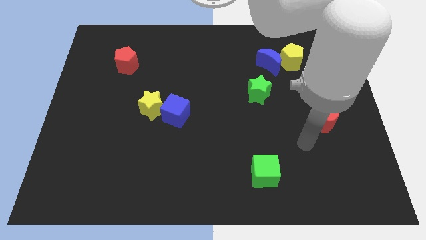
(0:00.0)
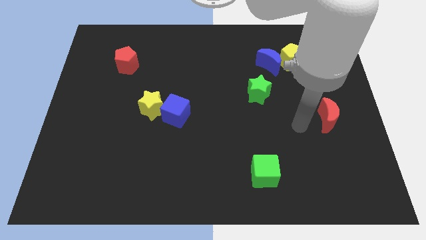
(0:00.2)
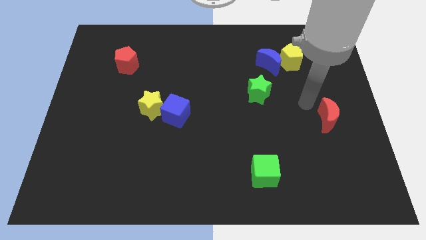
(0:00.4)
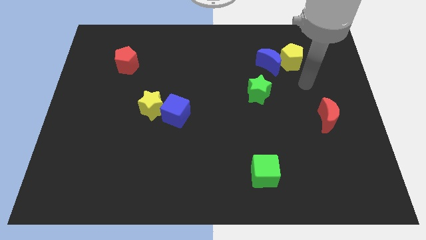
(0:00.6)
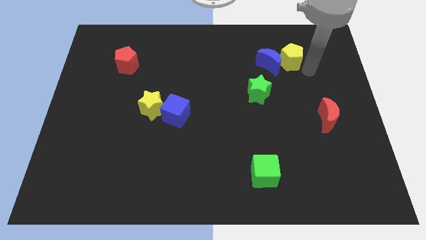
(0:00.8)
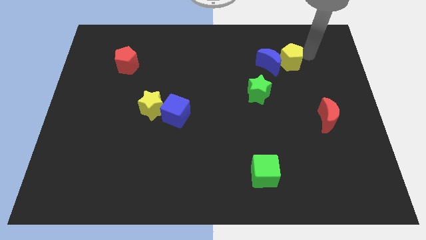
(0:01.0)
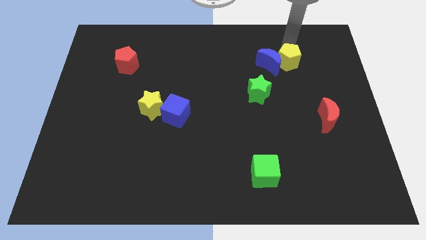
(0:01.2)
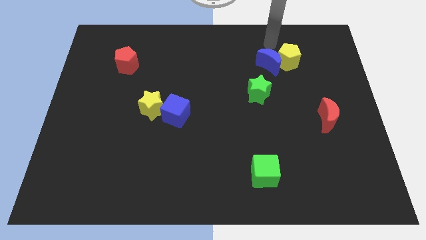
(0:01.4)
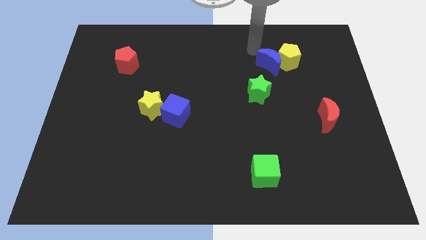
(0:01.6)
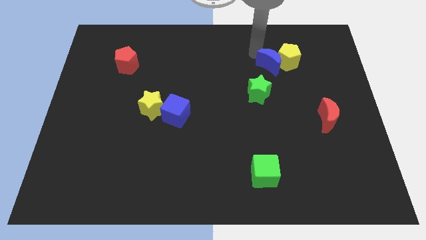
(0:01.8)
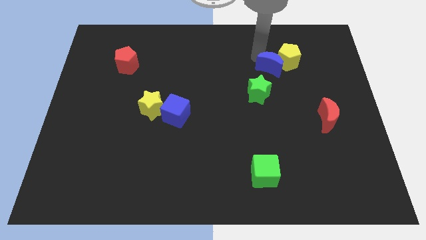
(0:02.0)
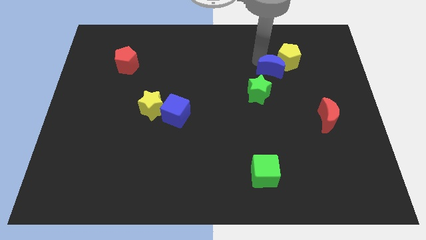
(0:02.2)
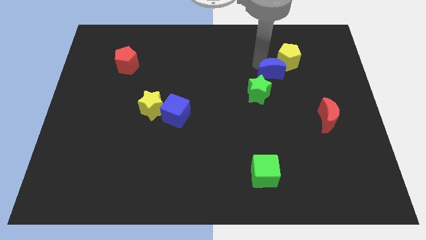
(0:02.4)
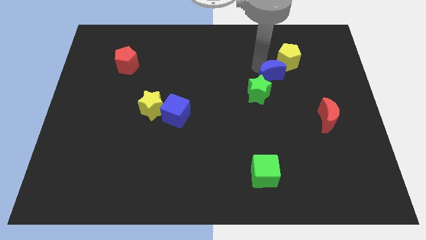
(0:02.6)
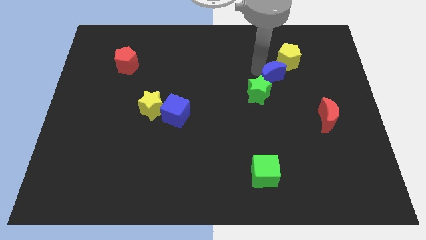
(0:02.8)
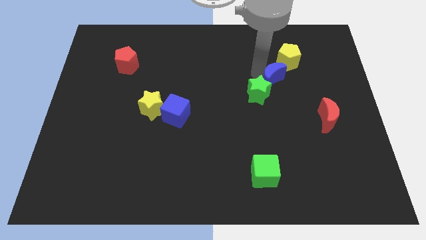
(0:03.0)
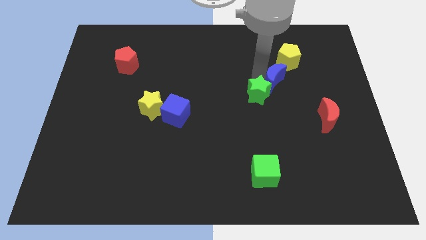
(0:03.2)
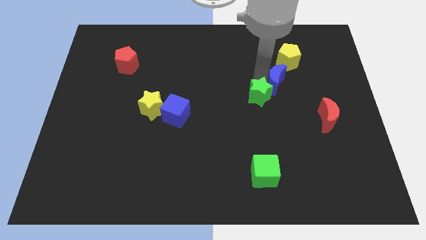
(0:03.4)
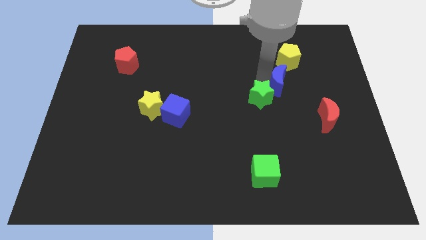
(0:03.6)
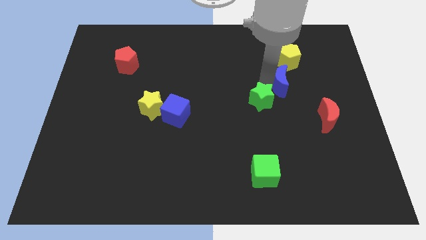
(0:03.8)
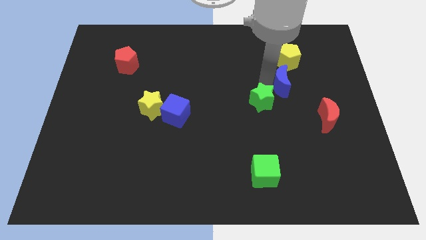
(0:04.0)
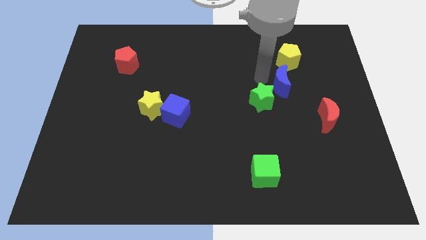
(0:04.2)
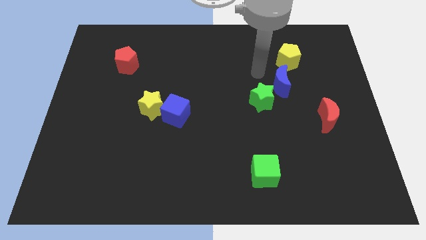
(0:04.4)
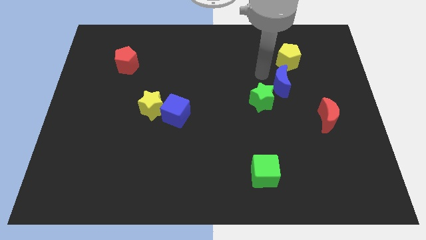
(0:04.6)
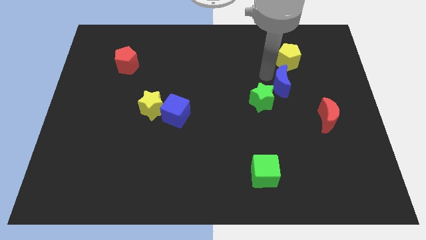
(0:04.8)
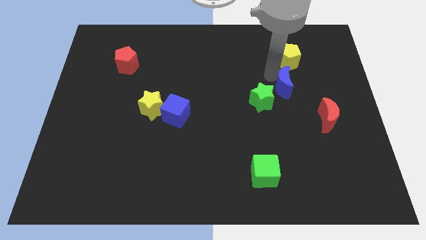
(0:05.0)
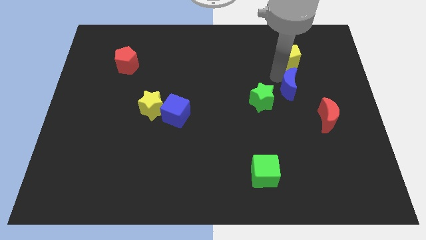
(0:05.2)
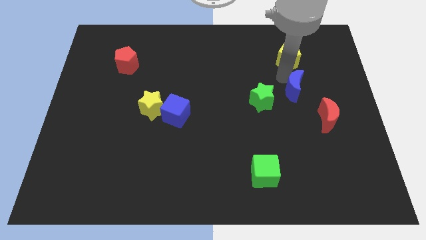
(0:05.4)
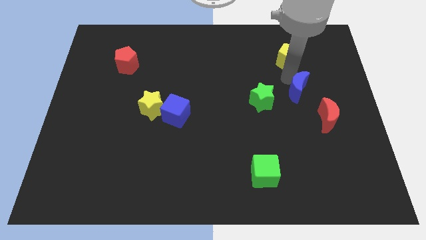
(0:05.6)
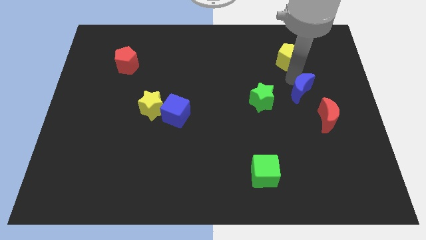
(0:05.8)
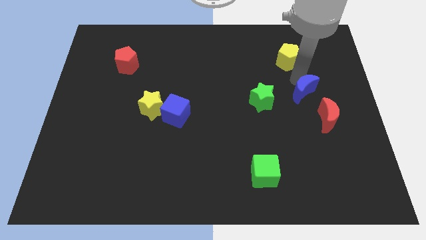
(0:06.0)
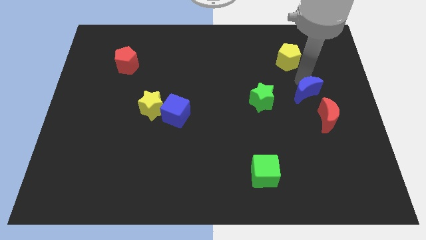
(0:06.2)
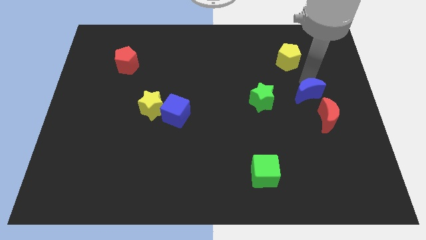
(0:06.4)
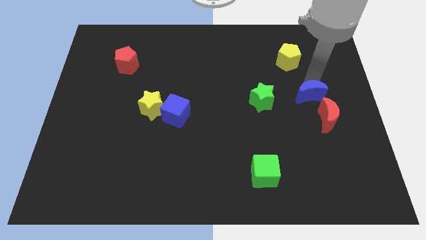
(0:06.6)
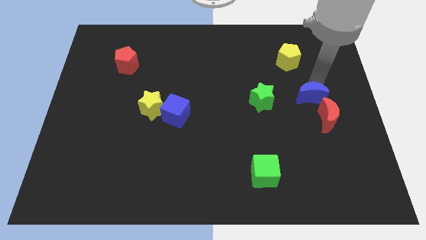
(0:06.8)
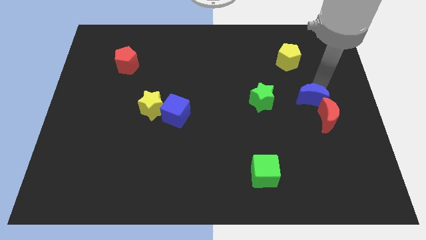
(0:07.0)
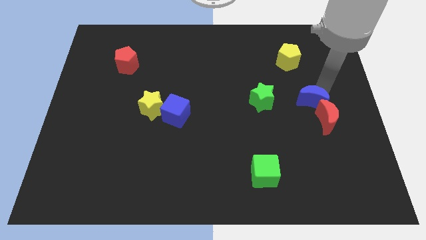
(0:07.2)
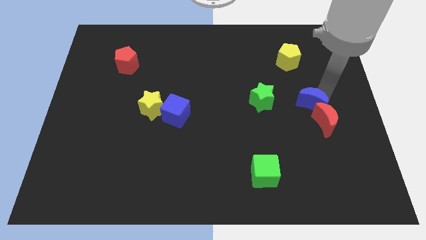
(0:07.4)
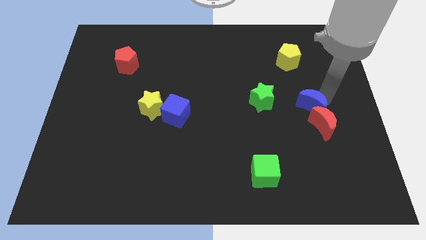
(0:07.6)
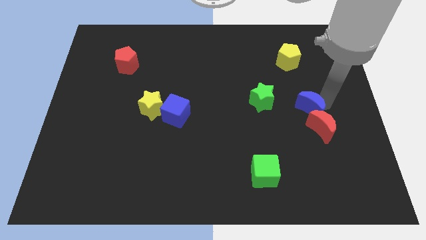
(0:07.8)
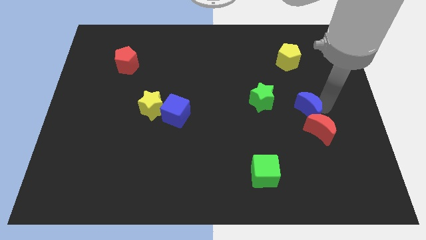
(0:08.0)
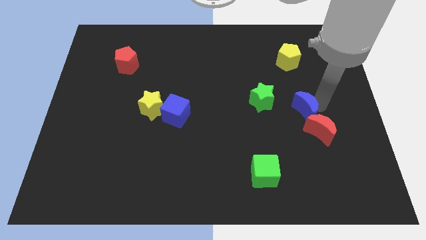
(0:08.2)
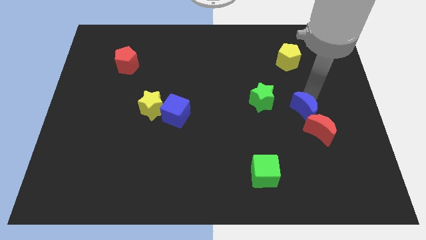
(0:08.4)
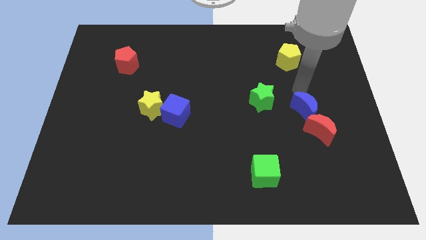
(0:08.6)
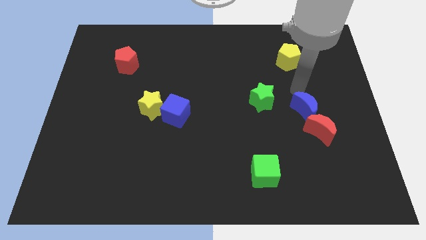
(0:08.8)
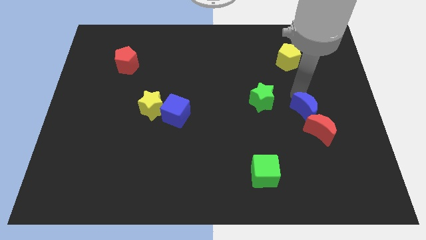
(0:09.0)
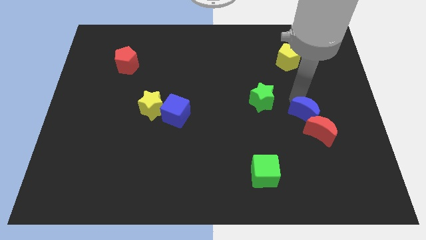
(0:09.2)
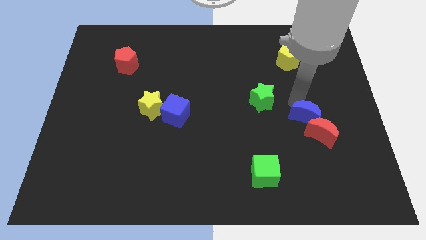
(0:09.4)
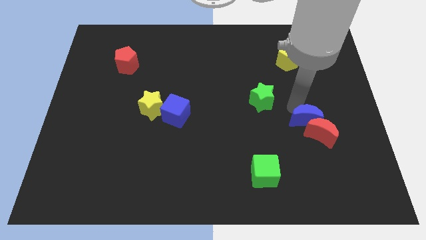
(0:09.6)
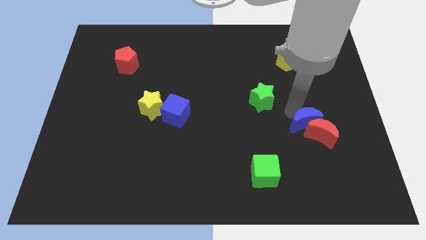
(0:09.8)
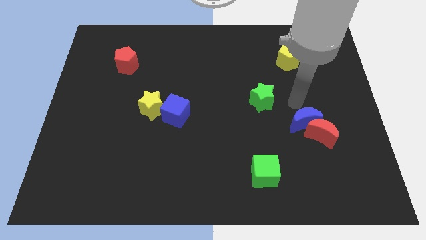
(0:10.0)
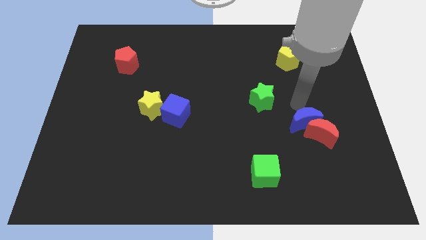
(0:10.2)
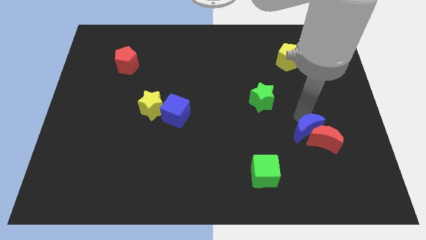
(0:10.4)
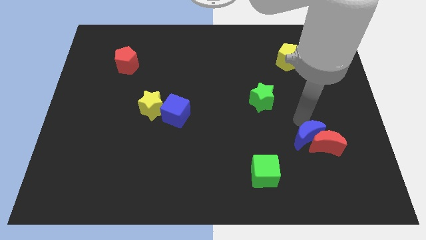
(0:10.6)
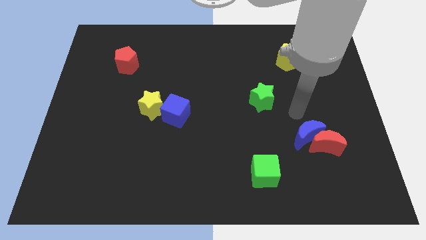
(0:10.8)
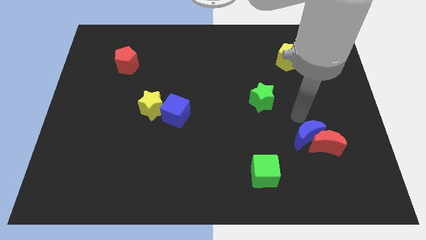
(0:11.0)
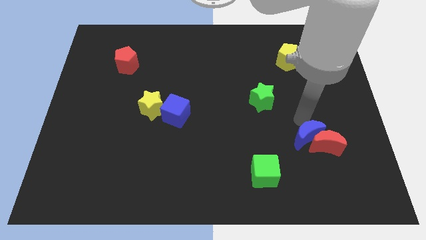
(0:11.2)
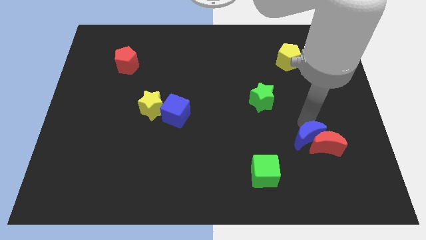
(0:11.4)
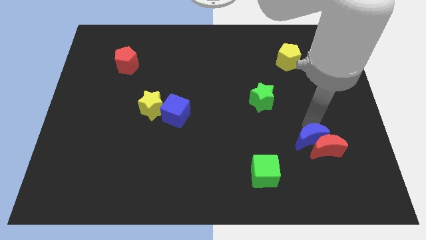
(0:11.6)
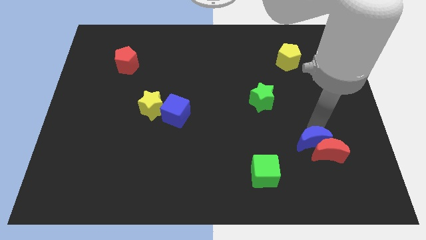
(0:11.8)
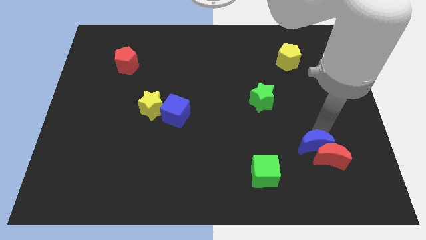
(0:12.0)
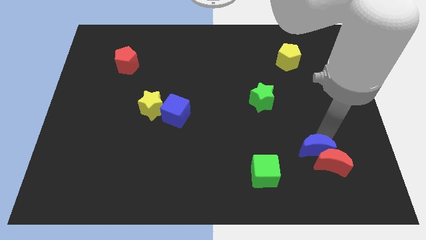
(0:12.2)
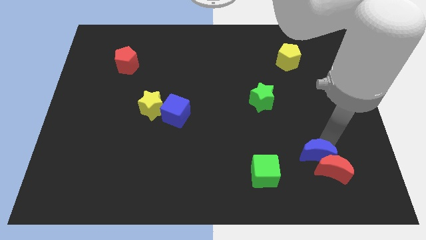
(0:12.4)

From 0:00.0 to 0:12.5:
slide the blue moon right of the green cube

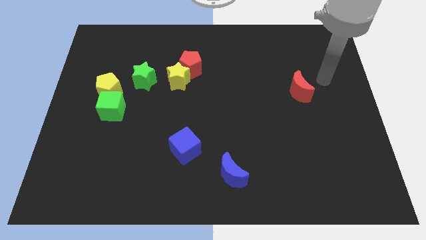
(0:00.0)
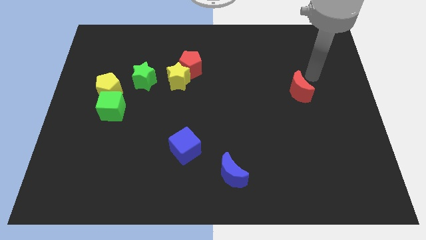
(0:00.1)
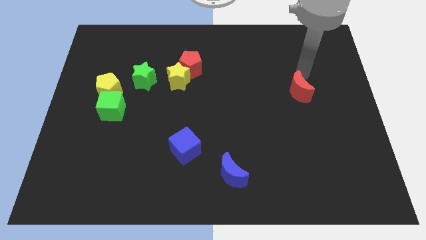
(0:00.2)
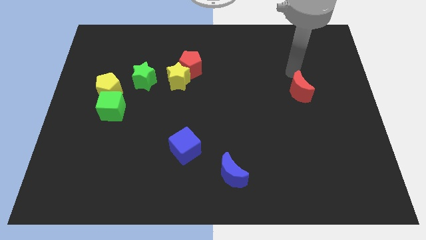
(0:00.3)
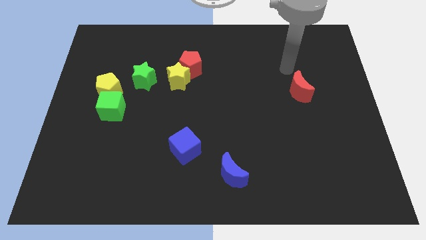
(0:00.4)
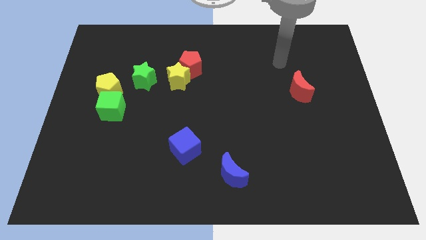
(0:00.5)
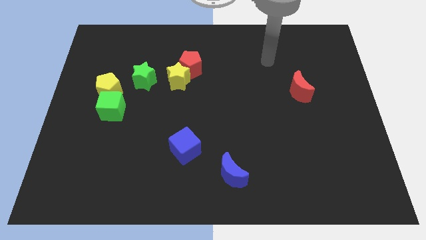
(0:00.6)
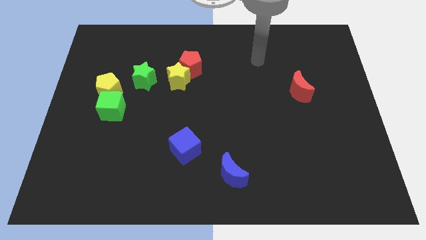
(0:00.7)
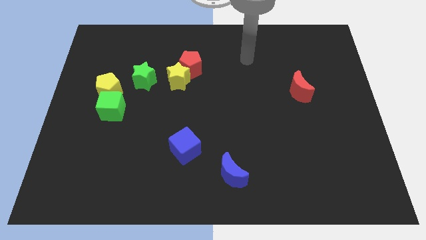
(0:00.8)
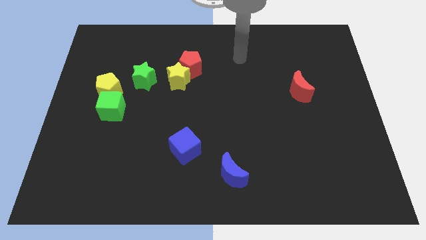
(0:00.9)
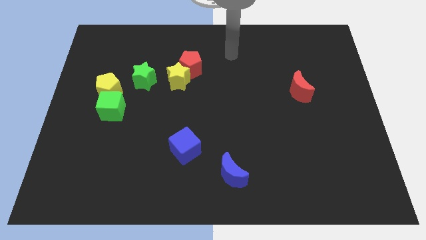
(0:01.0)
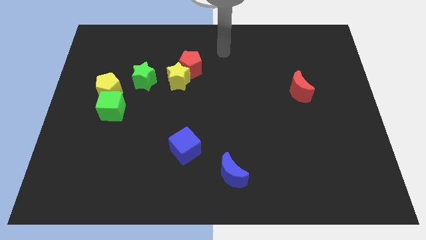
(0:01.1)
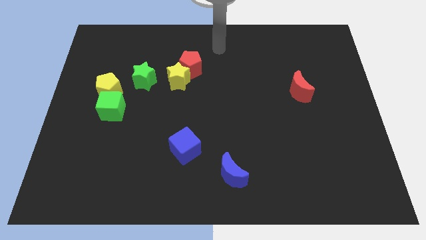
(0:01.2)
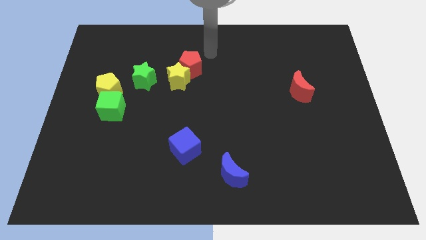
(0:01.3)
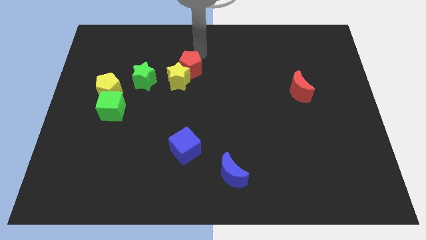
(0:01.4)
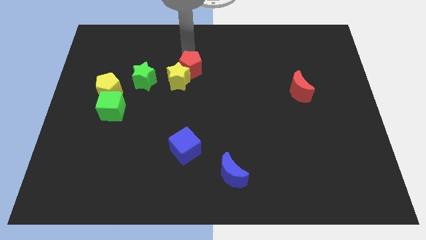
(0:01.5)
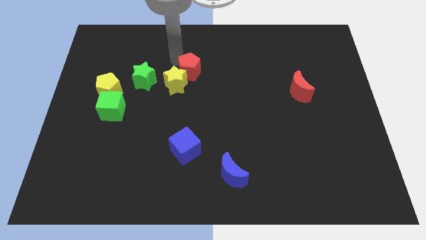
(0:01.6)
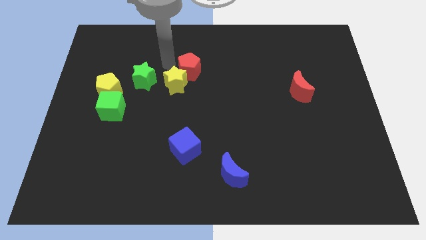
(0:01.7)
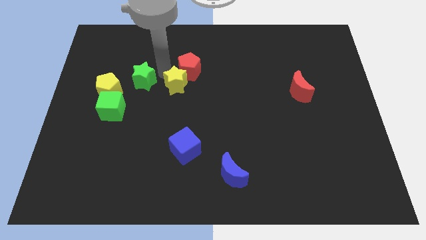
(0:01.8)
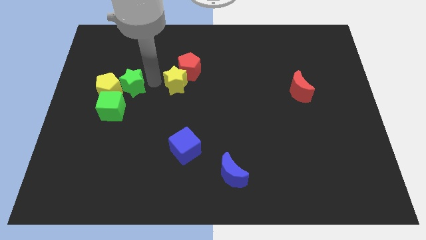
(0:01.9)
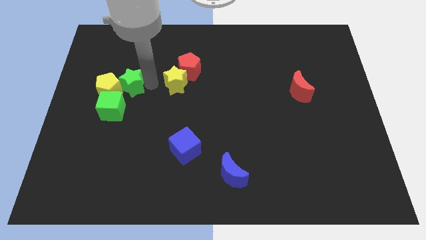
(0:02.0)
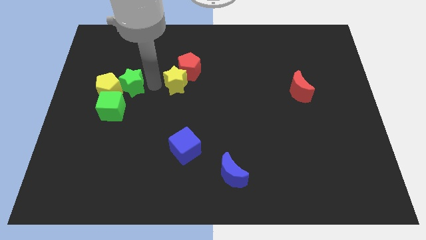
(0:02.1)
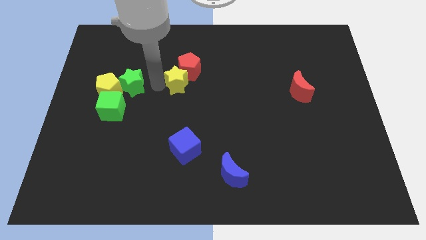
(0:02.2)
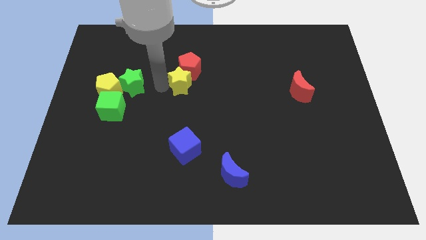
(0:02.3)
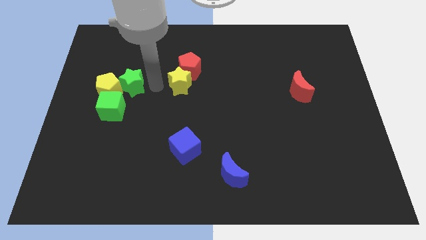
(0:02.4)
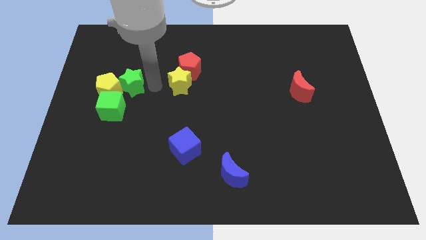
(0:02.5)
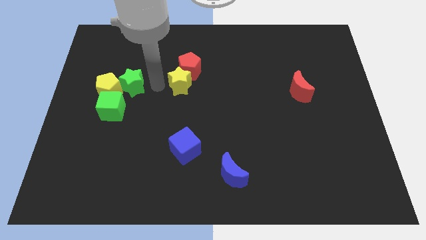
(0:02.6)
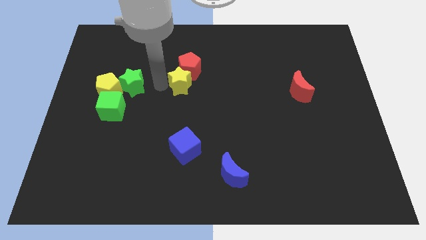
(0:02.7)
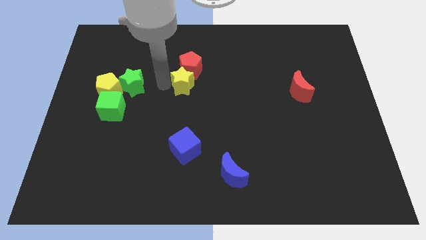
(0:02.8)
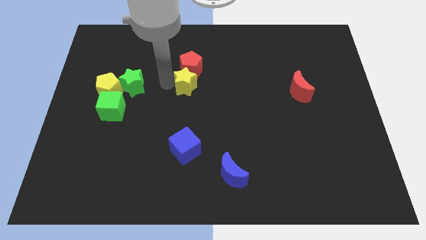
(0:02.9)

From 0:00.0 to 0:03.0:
slide the yellow star diagonally down and to the right of the red pentagon
